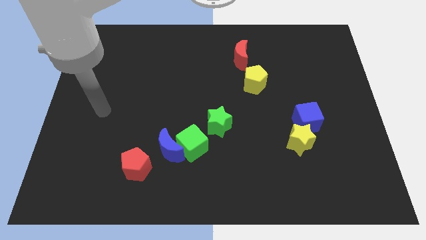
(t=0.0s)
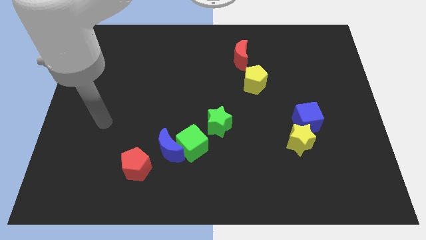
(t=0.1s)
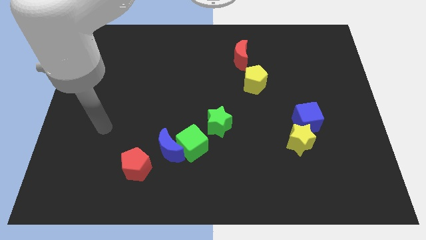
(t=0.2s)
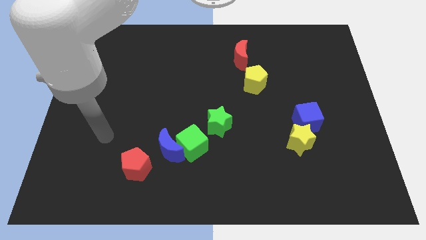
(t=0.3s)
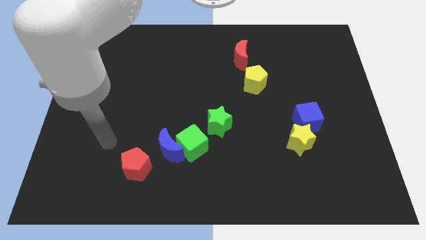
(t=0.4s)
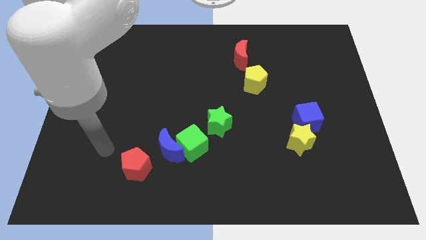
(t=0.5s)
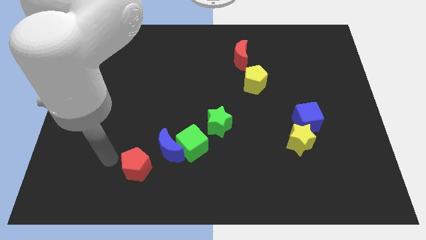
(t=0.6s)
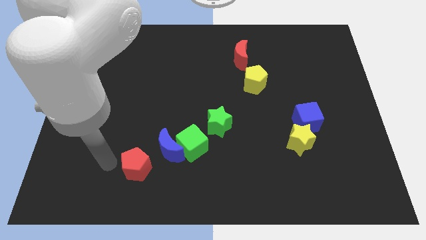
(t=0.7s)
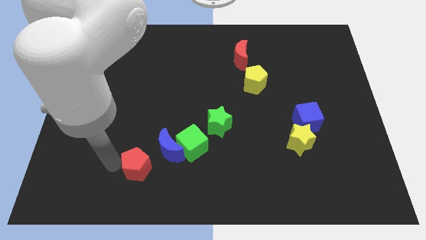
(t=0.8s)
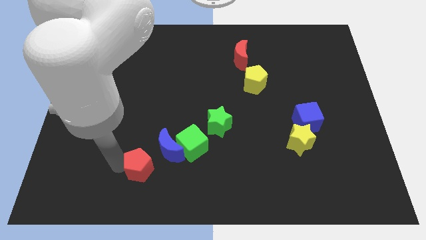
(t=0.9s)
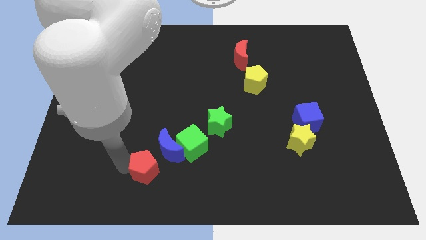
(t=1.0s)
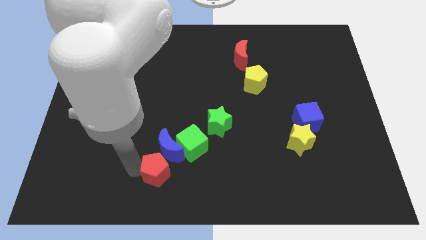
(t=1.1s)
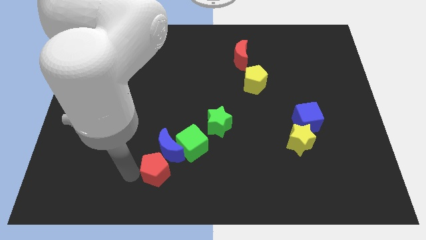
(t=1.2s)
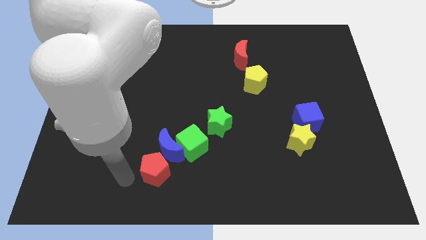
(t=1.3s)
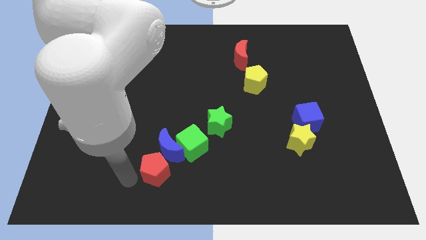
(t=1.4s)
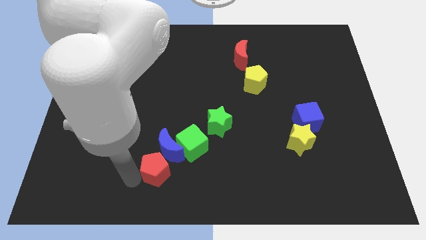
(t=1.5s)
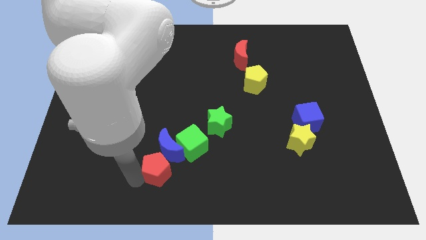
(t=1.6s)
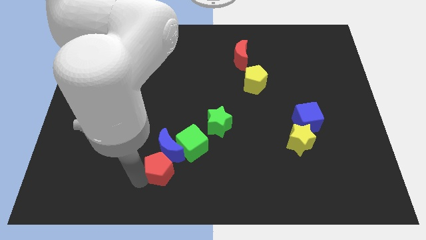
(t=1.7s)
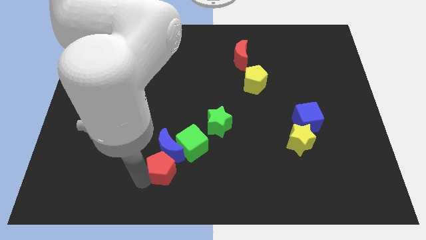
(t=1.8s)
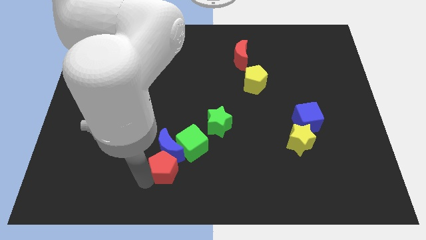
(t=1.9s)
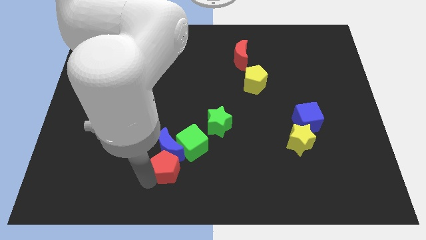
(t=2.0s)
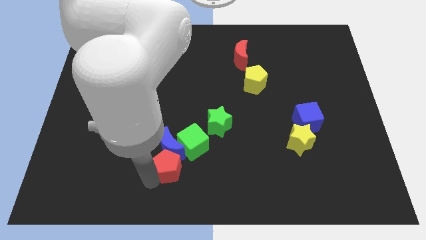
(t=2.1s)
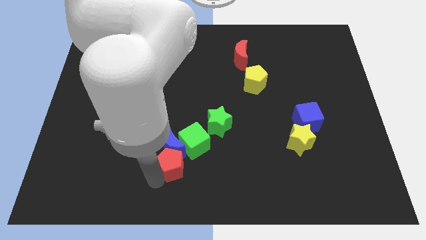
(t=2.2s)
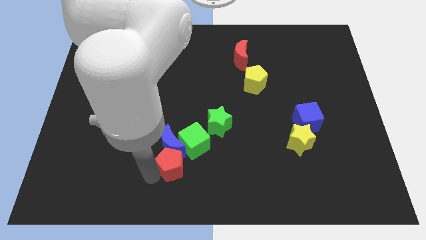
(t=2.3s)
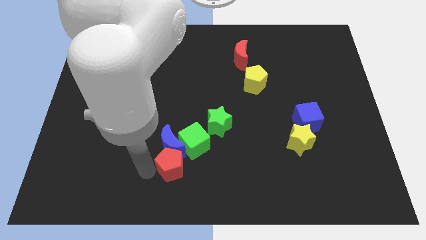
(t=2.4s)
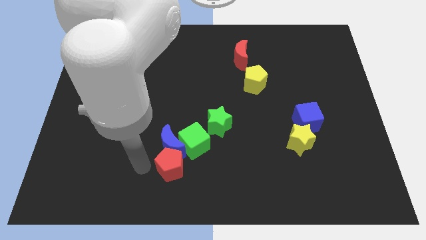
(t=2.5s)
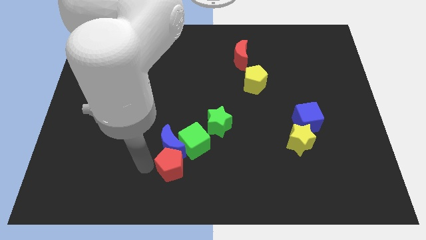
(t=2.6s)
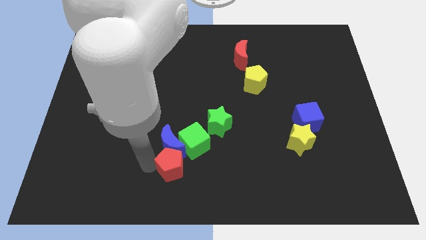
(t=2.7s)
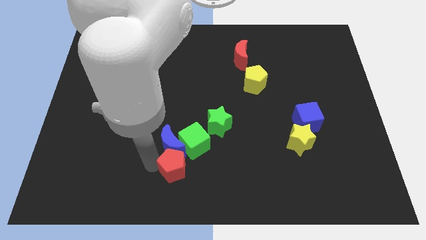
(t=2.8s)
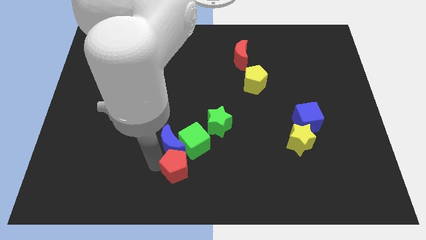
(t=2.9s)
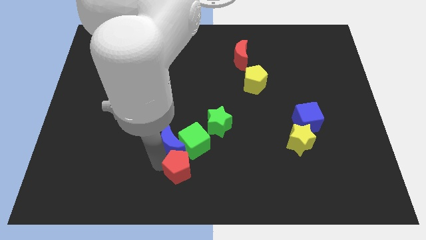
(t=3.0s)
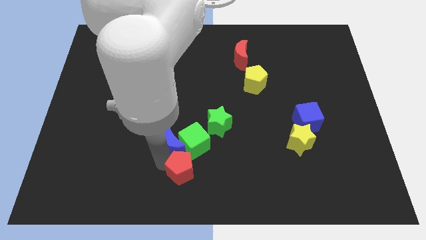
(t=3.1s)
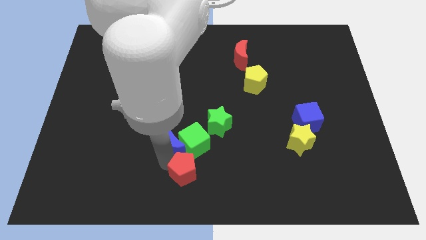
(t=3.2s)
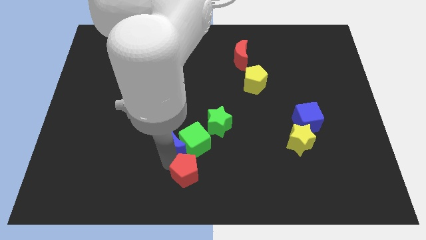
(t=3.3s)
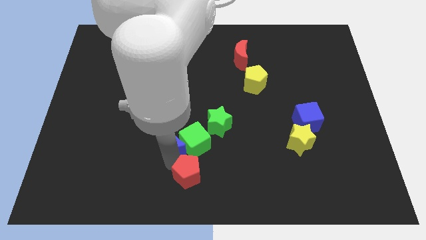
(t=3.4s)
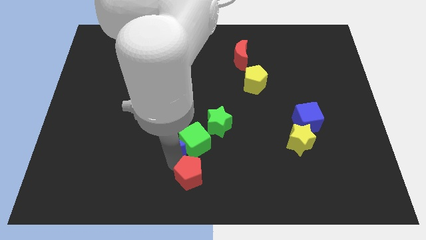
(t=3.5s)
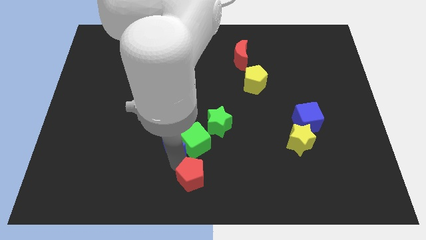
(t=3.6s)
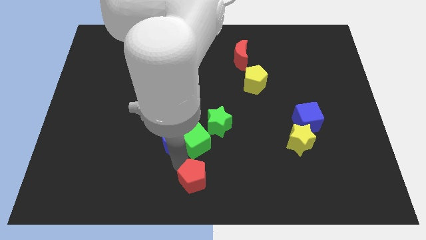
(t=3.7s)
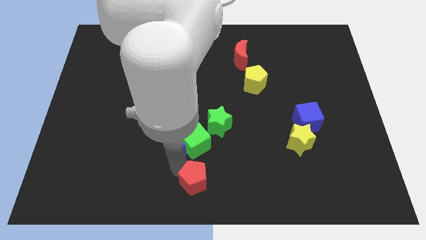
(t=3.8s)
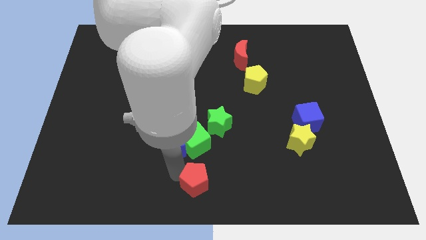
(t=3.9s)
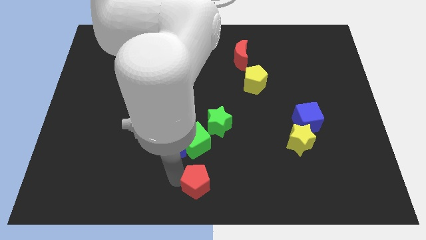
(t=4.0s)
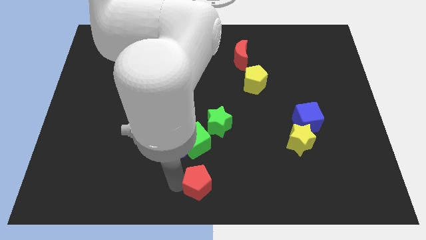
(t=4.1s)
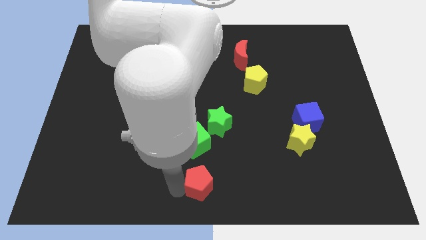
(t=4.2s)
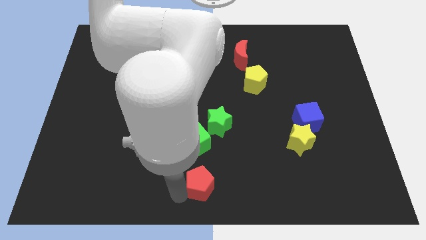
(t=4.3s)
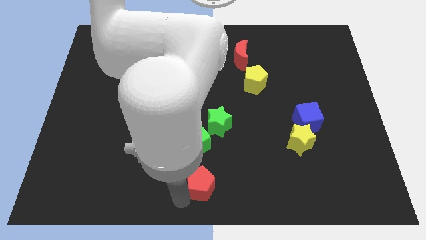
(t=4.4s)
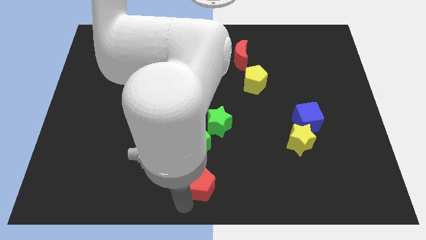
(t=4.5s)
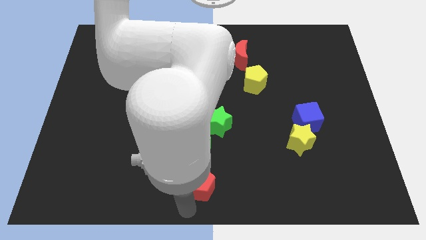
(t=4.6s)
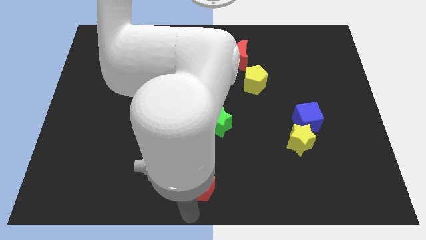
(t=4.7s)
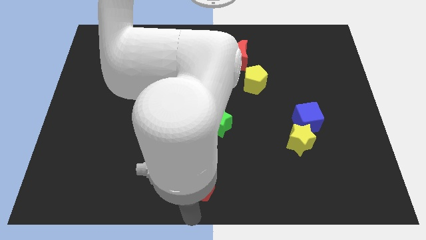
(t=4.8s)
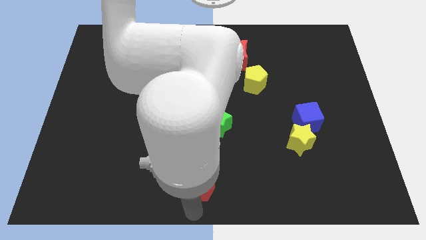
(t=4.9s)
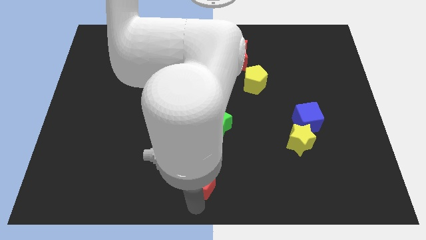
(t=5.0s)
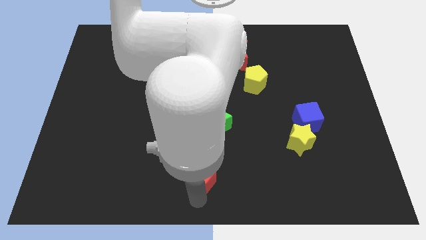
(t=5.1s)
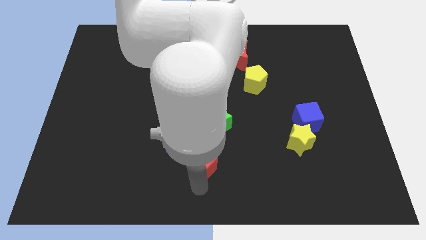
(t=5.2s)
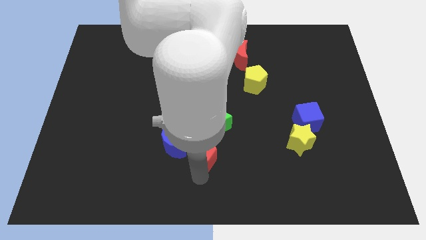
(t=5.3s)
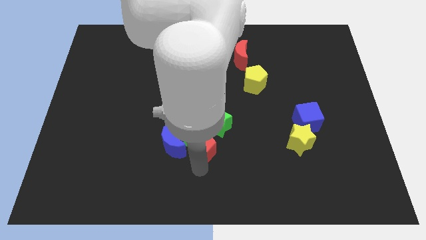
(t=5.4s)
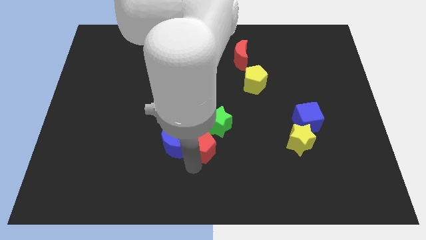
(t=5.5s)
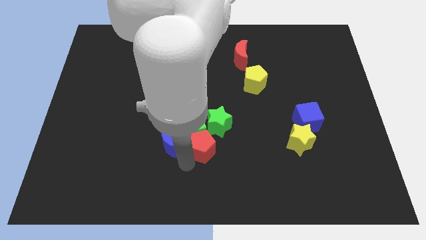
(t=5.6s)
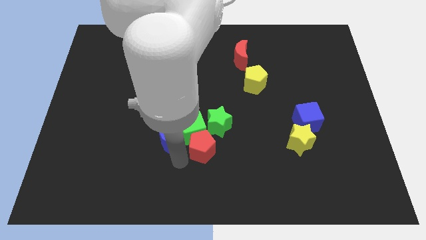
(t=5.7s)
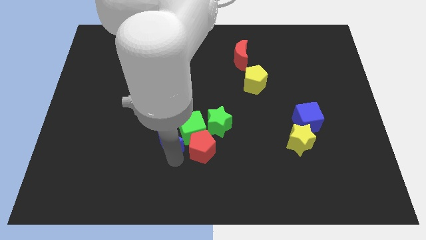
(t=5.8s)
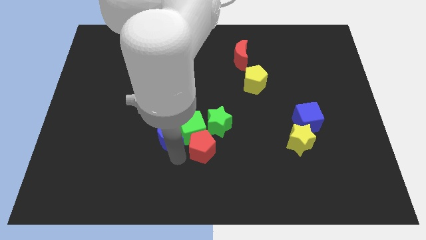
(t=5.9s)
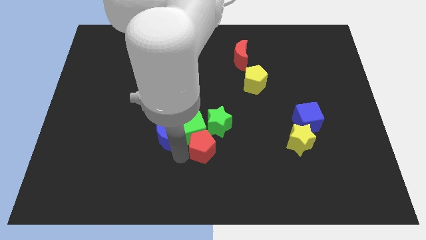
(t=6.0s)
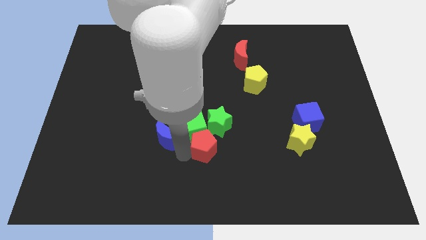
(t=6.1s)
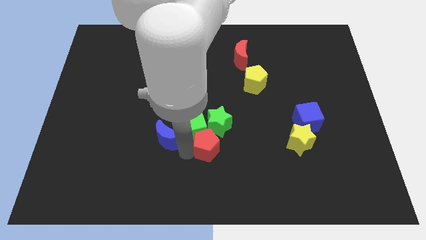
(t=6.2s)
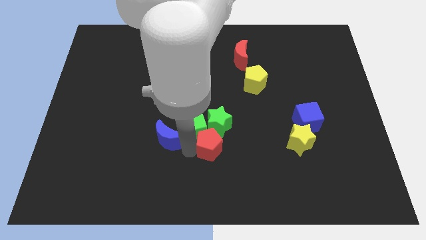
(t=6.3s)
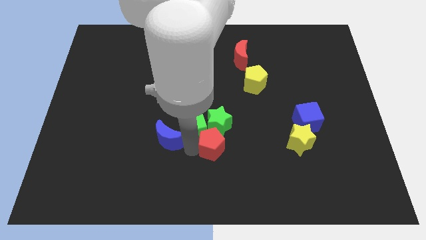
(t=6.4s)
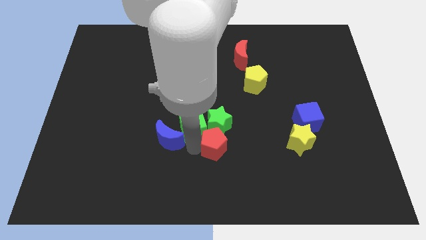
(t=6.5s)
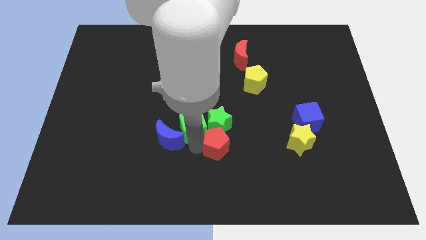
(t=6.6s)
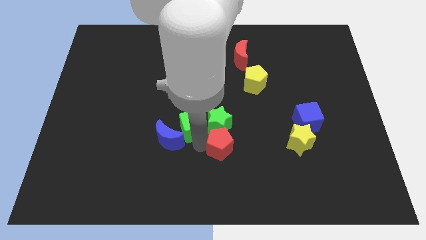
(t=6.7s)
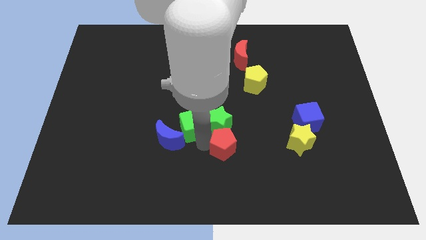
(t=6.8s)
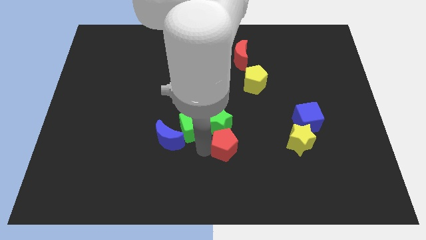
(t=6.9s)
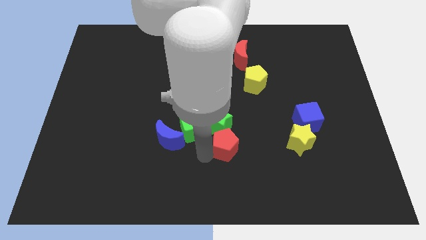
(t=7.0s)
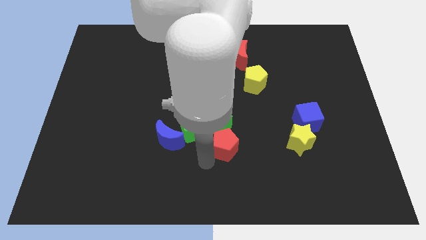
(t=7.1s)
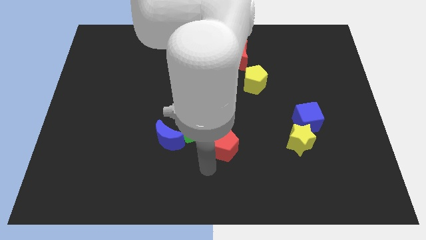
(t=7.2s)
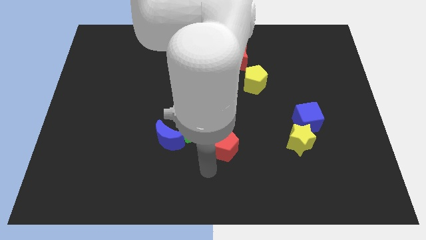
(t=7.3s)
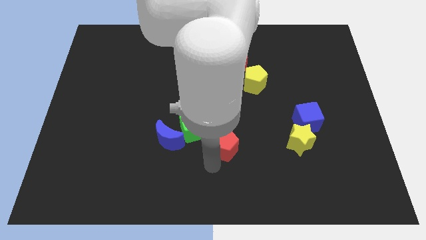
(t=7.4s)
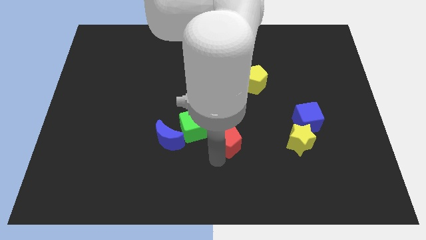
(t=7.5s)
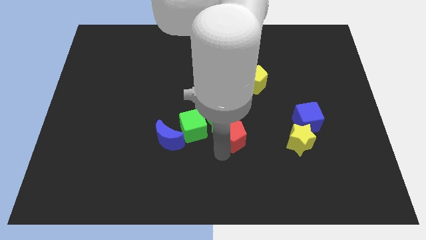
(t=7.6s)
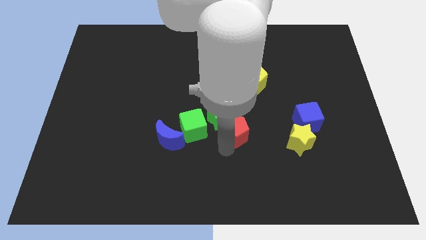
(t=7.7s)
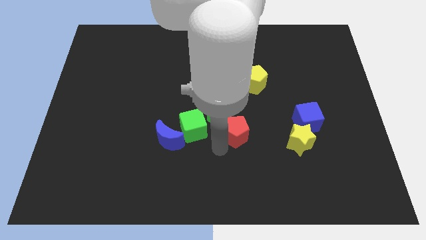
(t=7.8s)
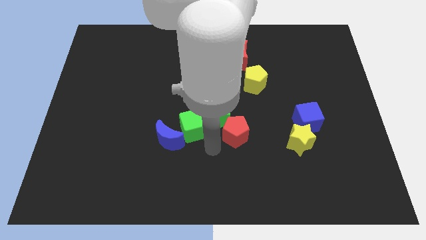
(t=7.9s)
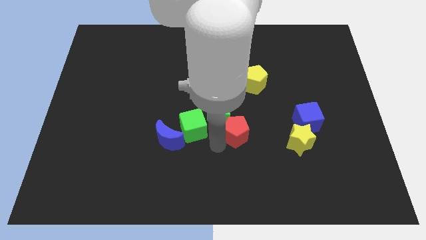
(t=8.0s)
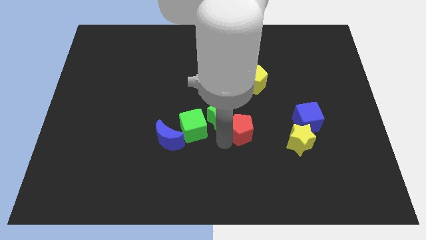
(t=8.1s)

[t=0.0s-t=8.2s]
push the red pentagon to the left of the blue cube
